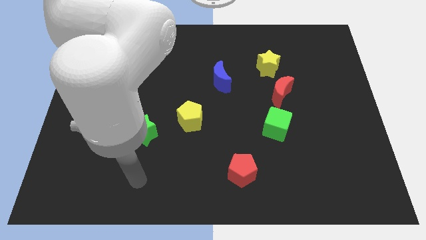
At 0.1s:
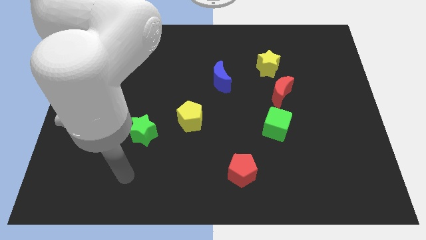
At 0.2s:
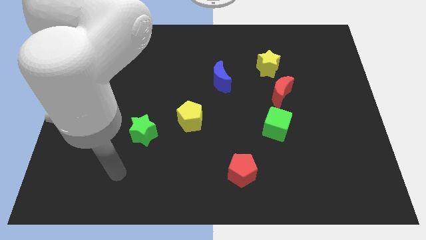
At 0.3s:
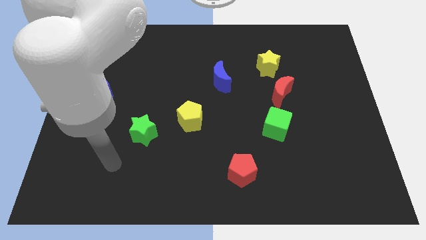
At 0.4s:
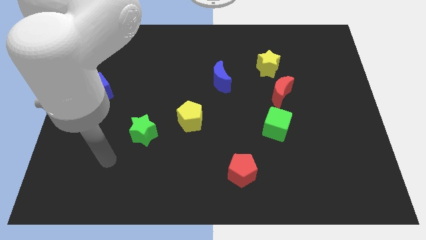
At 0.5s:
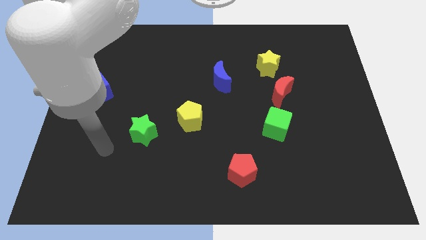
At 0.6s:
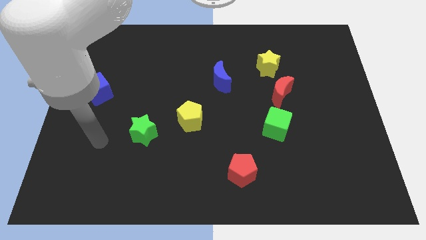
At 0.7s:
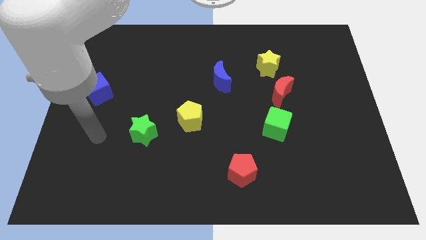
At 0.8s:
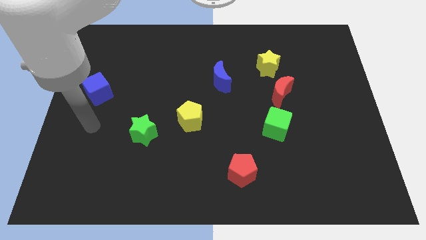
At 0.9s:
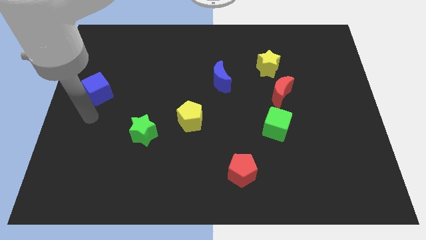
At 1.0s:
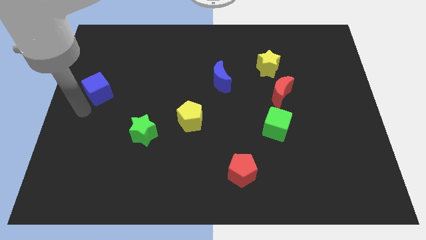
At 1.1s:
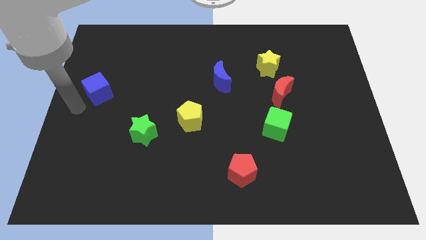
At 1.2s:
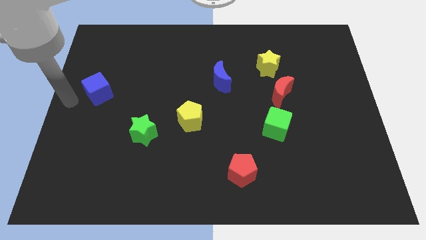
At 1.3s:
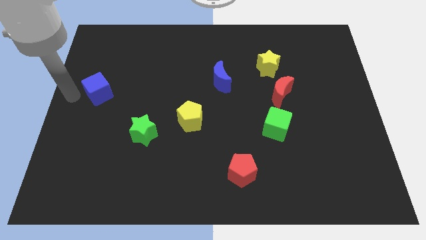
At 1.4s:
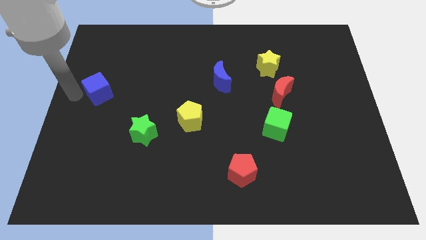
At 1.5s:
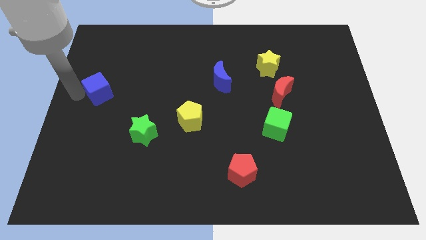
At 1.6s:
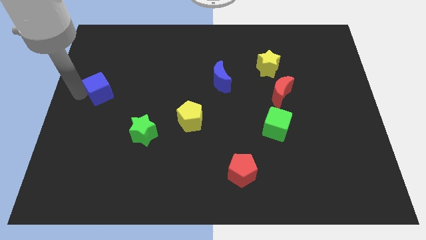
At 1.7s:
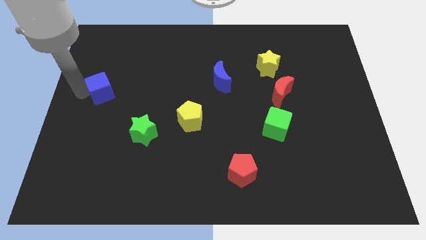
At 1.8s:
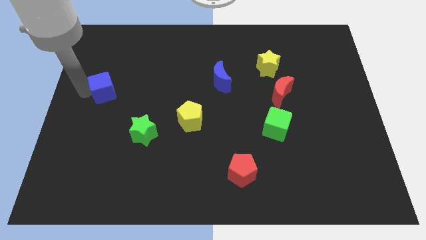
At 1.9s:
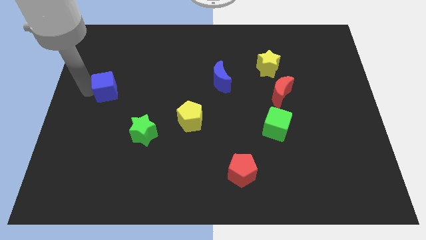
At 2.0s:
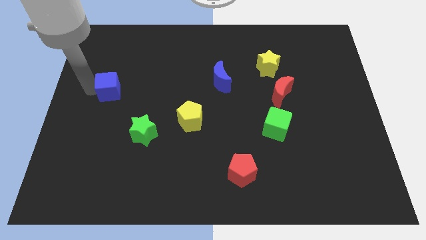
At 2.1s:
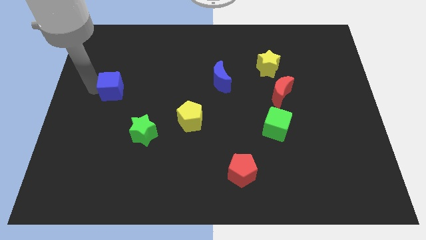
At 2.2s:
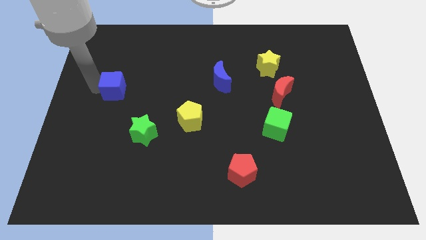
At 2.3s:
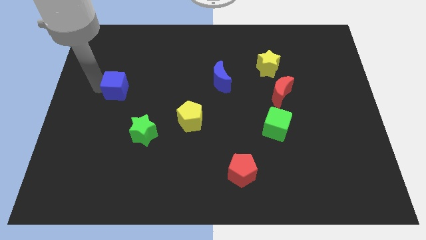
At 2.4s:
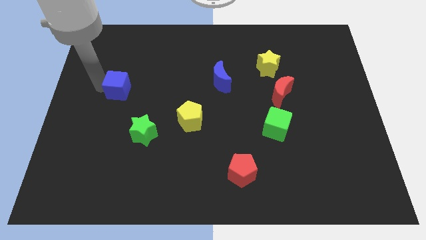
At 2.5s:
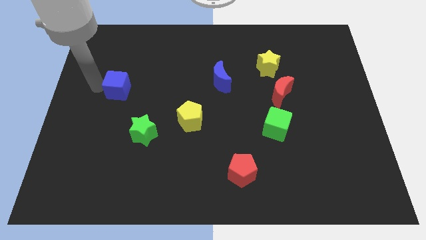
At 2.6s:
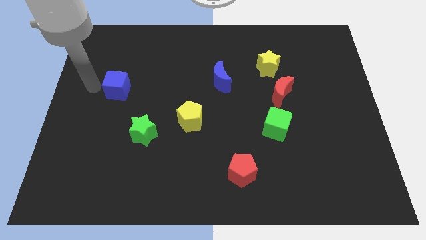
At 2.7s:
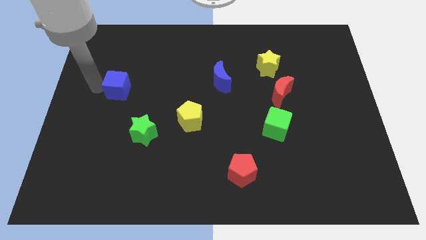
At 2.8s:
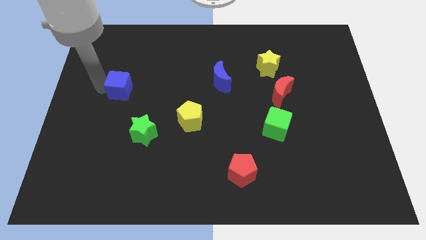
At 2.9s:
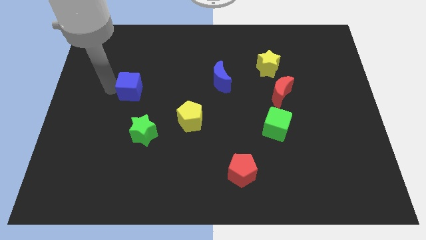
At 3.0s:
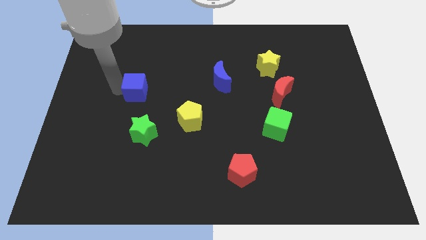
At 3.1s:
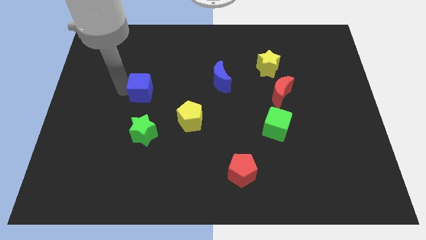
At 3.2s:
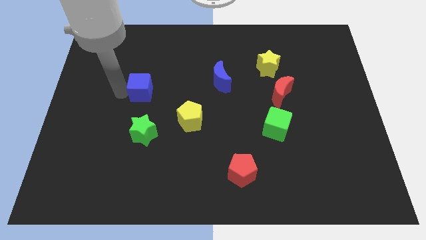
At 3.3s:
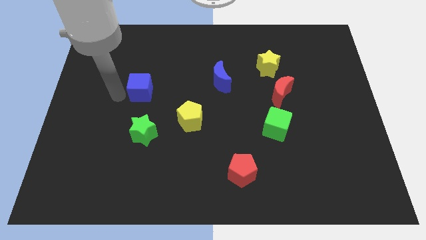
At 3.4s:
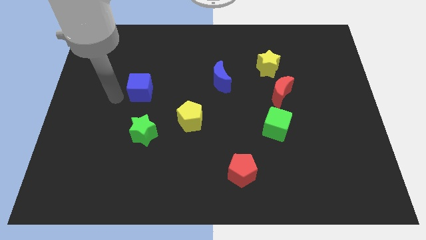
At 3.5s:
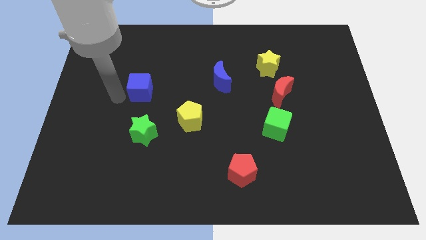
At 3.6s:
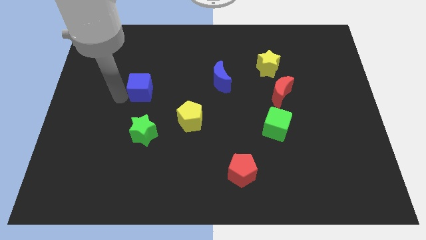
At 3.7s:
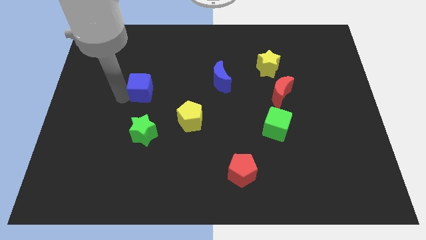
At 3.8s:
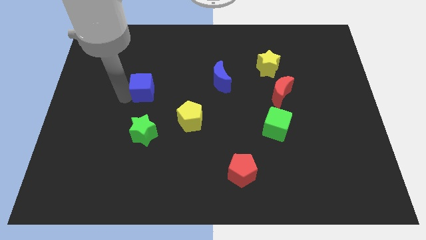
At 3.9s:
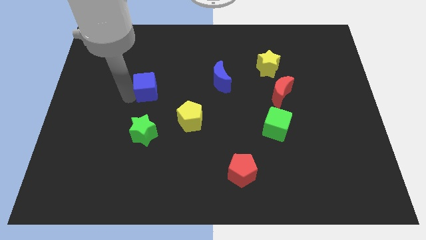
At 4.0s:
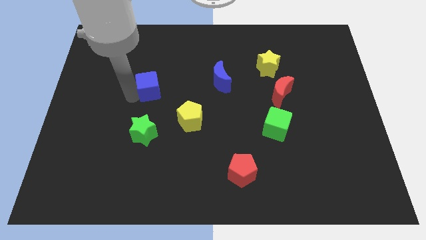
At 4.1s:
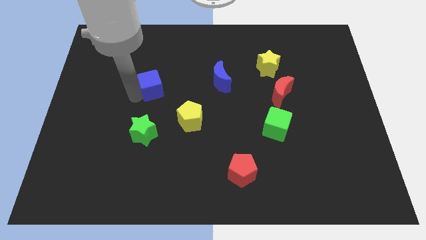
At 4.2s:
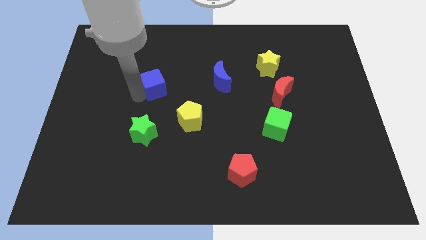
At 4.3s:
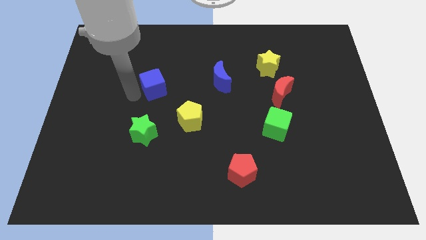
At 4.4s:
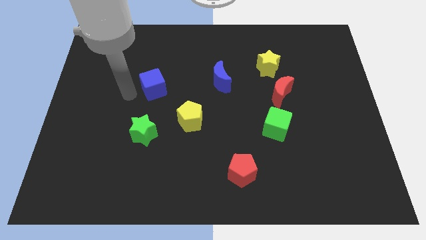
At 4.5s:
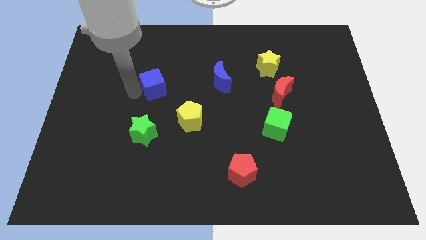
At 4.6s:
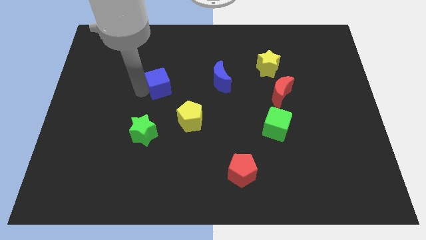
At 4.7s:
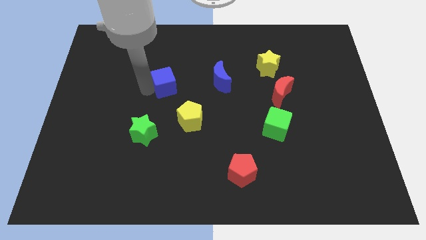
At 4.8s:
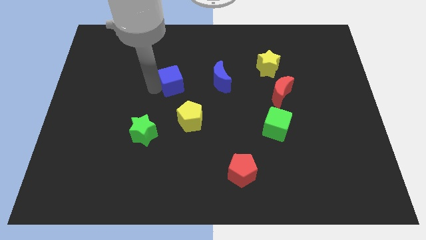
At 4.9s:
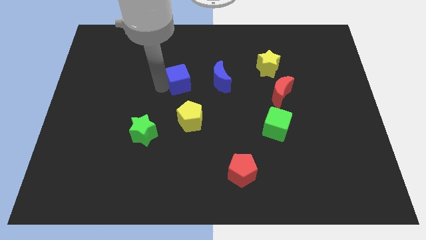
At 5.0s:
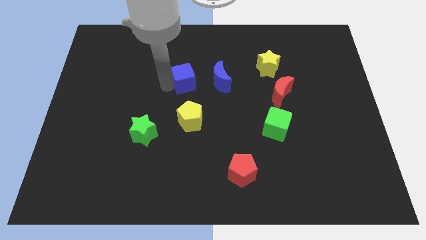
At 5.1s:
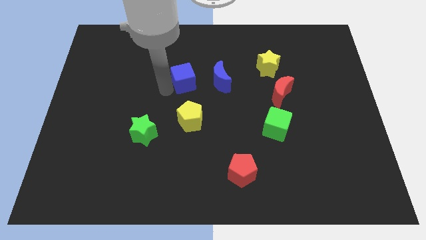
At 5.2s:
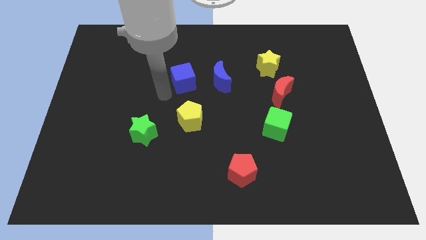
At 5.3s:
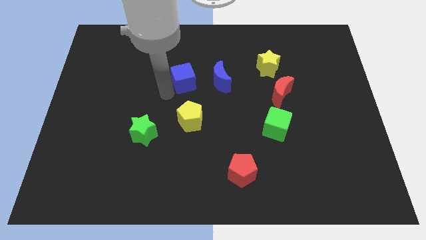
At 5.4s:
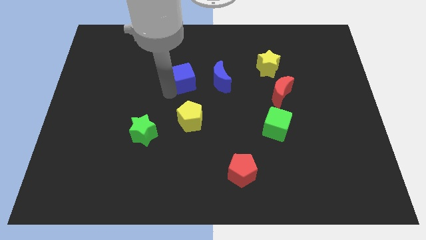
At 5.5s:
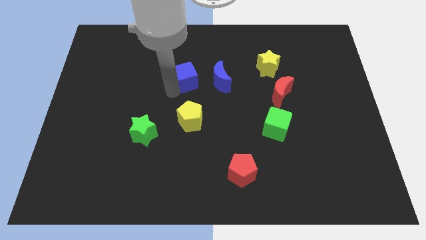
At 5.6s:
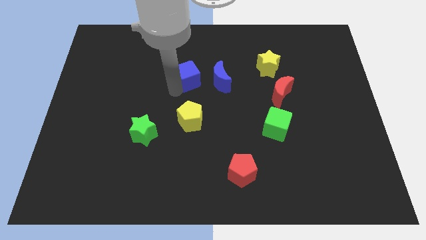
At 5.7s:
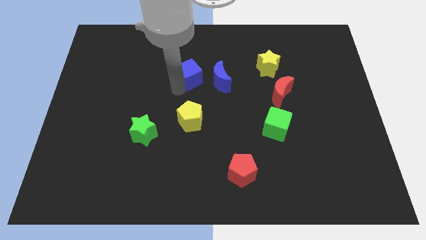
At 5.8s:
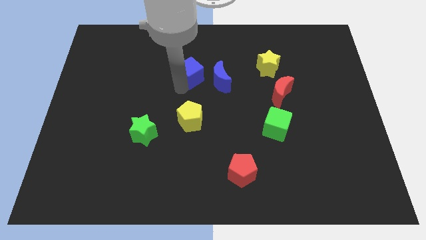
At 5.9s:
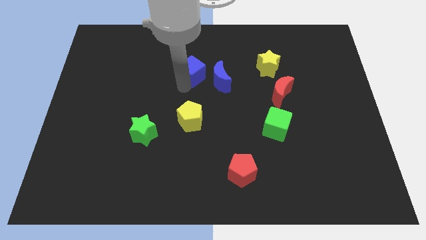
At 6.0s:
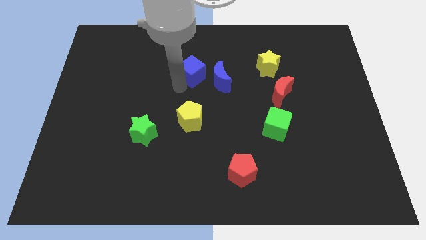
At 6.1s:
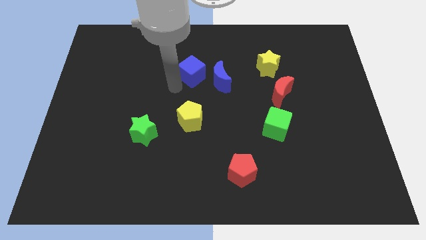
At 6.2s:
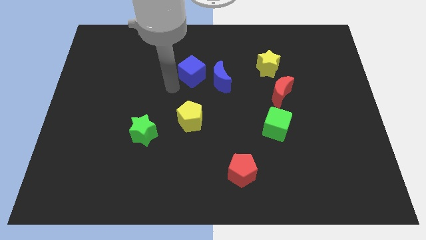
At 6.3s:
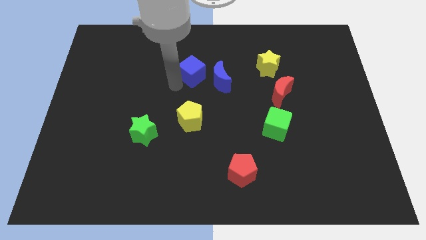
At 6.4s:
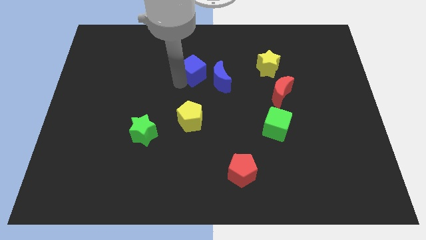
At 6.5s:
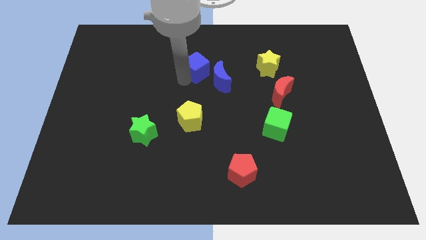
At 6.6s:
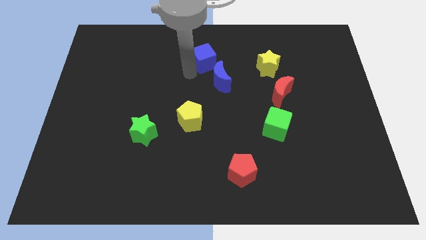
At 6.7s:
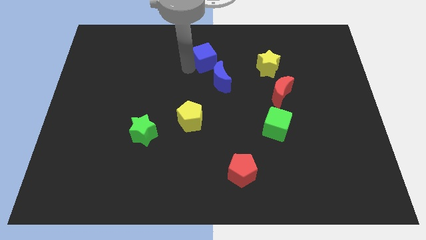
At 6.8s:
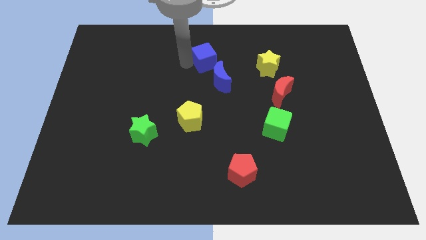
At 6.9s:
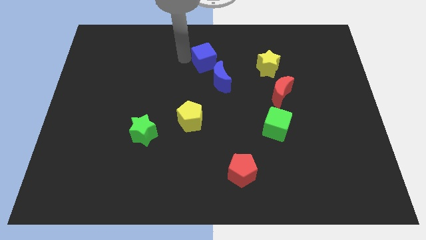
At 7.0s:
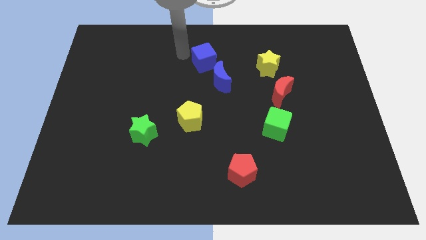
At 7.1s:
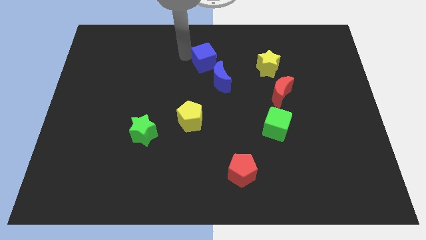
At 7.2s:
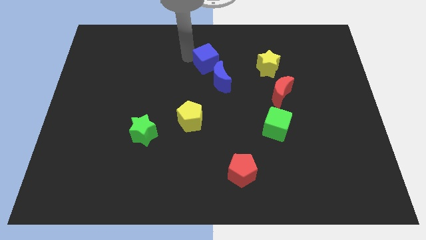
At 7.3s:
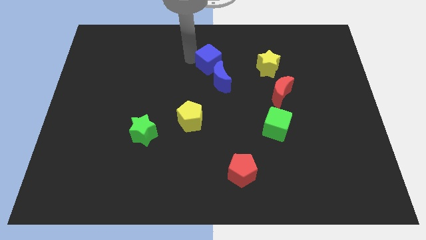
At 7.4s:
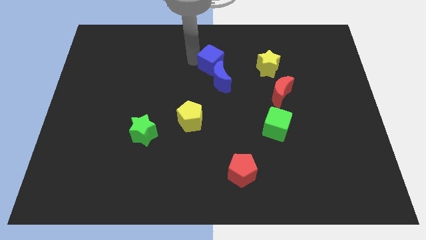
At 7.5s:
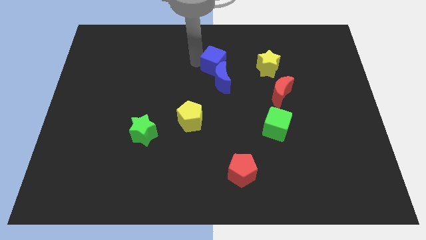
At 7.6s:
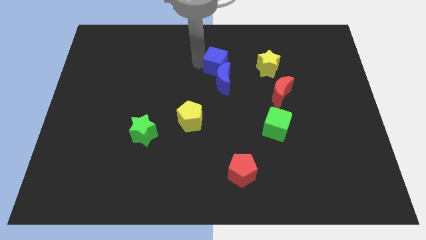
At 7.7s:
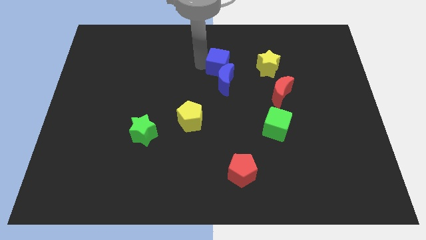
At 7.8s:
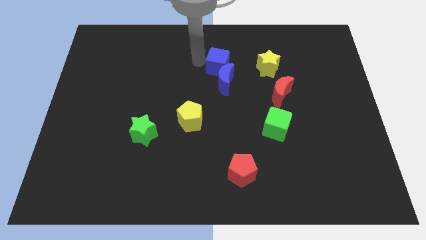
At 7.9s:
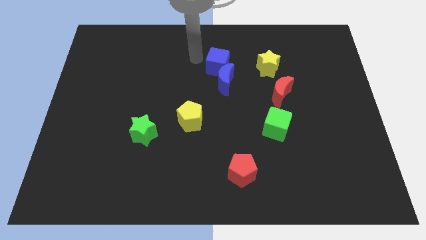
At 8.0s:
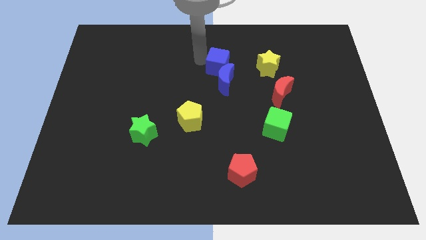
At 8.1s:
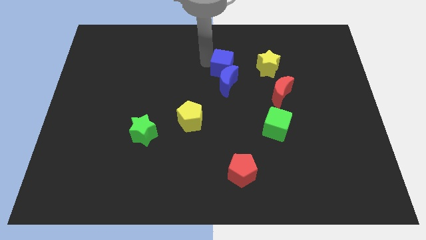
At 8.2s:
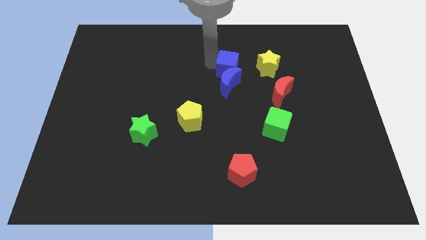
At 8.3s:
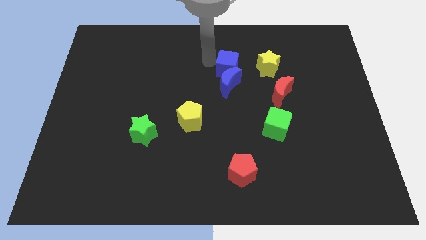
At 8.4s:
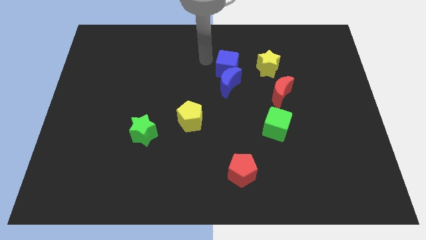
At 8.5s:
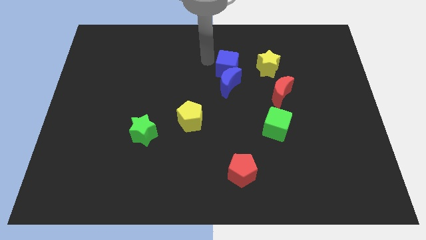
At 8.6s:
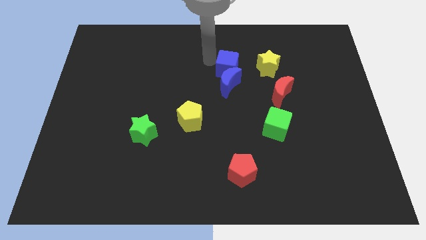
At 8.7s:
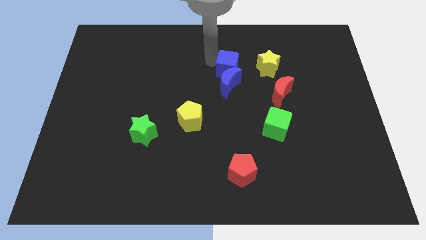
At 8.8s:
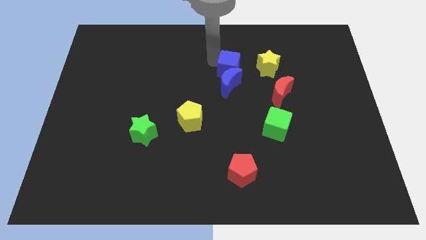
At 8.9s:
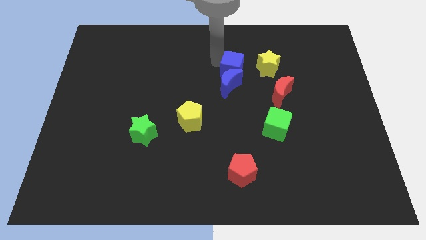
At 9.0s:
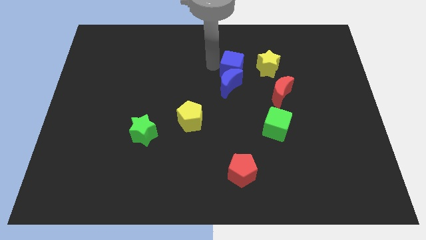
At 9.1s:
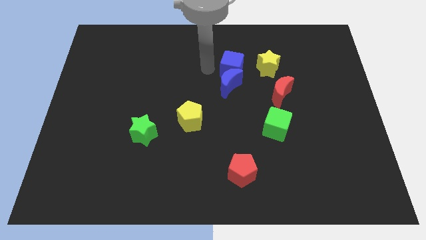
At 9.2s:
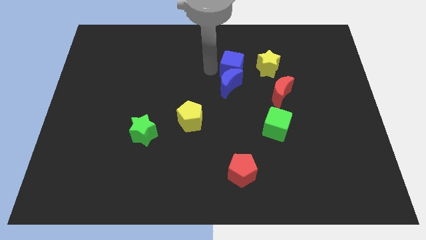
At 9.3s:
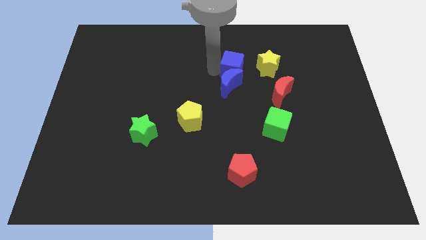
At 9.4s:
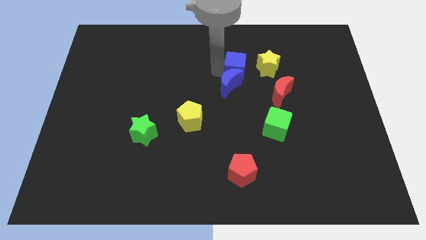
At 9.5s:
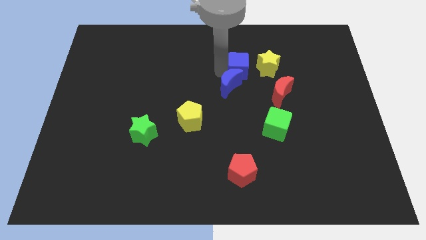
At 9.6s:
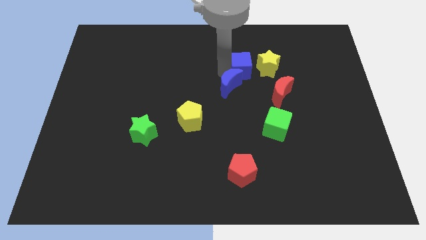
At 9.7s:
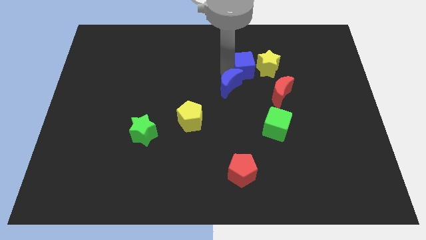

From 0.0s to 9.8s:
move the blue cube next to the yellow star
